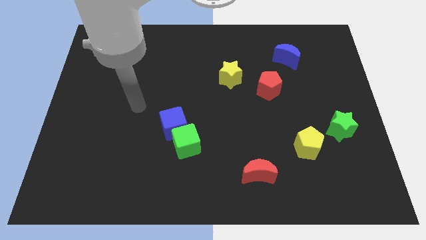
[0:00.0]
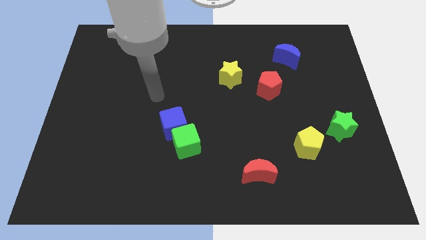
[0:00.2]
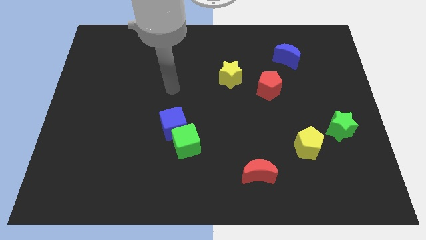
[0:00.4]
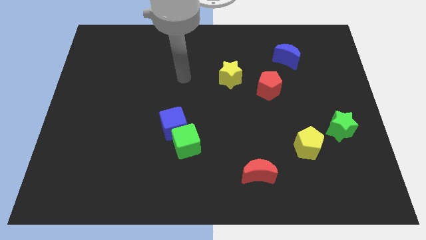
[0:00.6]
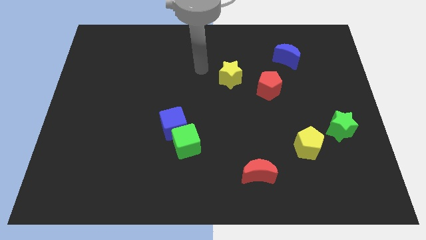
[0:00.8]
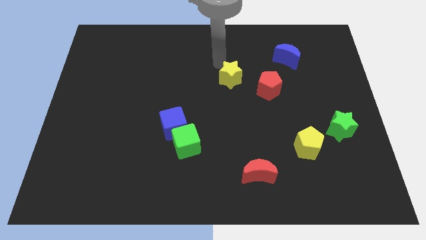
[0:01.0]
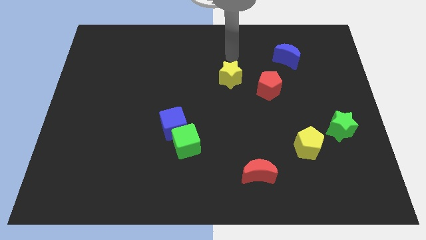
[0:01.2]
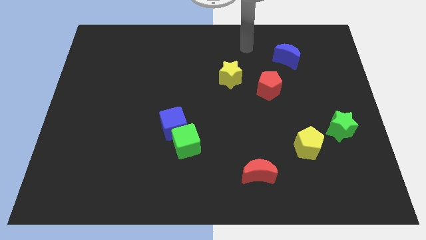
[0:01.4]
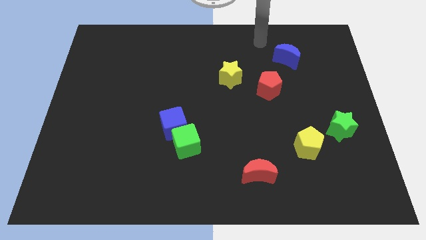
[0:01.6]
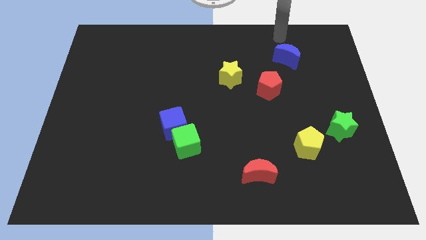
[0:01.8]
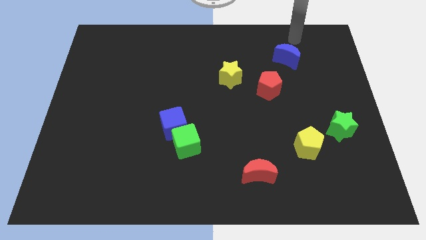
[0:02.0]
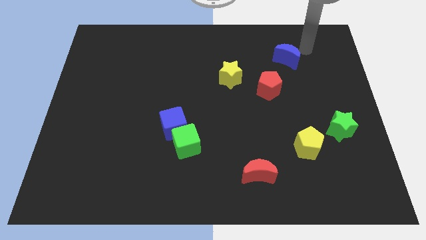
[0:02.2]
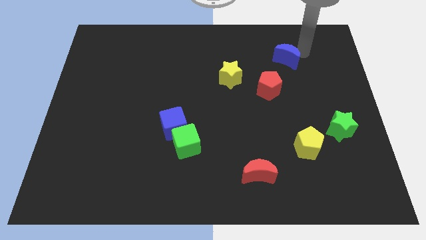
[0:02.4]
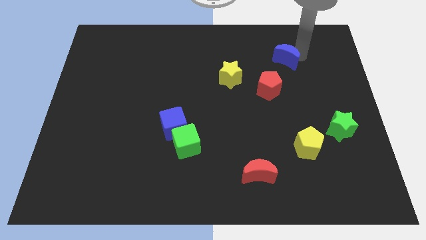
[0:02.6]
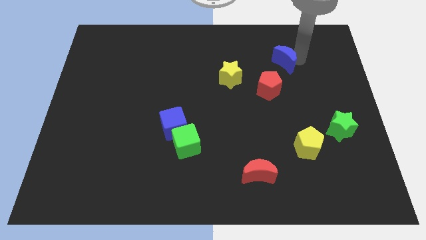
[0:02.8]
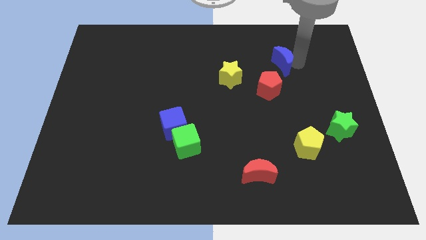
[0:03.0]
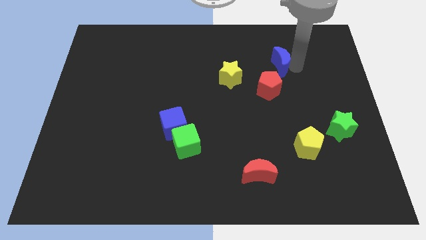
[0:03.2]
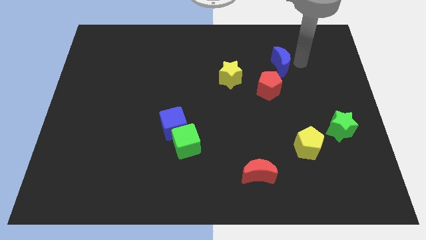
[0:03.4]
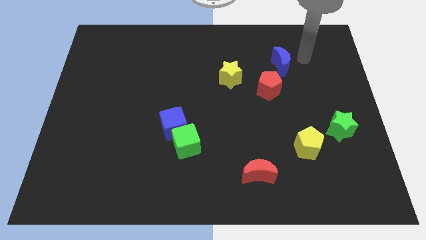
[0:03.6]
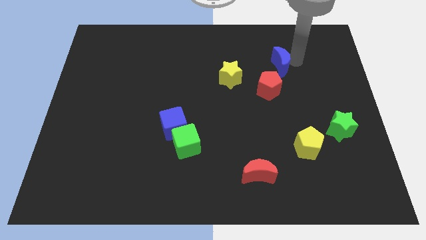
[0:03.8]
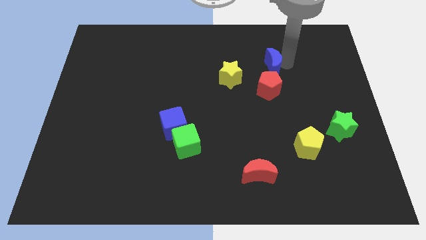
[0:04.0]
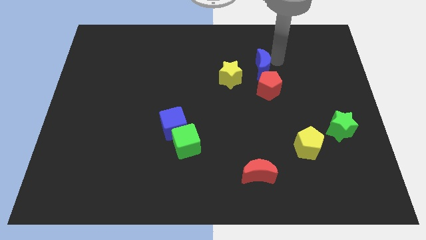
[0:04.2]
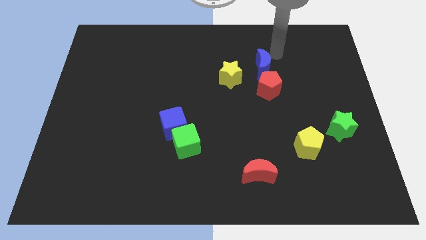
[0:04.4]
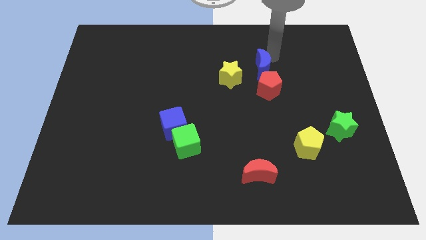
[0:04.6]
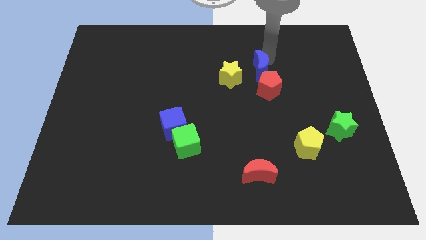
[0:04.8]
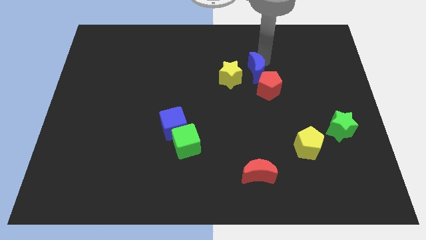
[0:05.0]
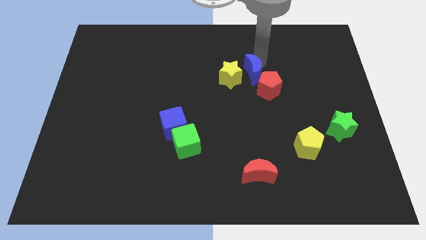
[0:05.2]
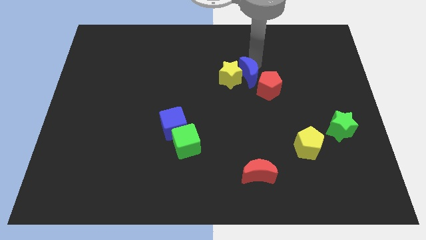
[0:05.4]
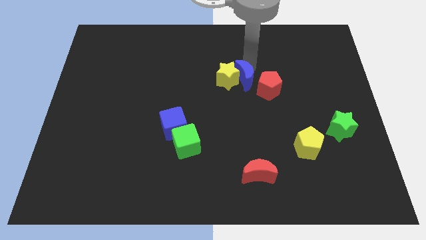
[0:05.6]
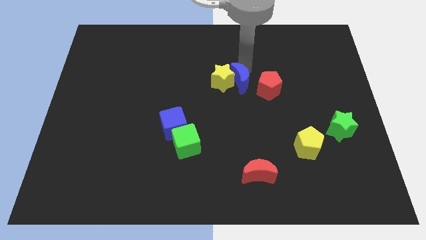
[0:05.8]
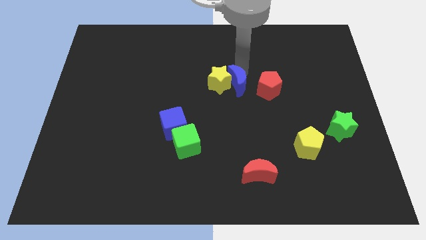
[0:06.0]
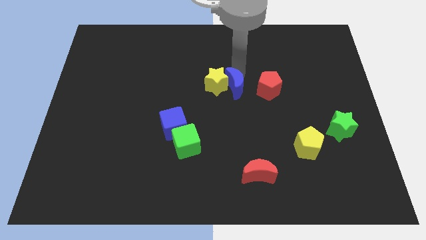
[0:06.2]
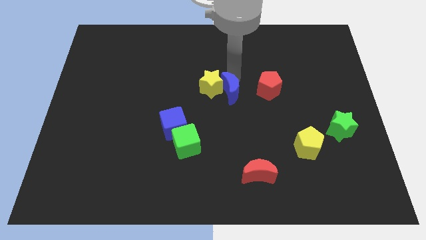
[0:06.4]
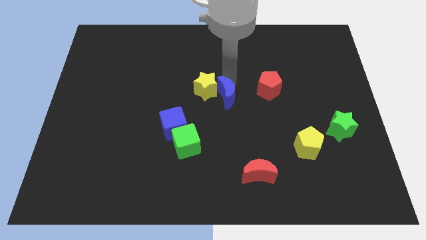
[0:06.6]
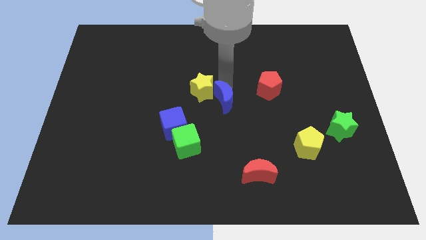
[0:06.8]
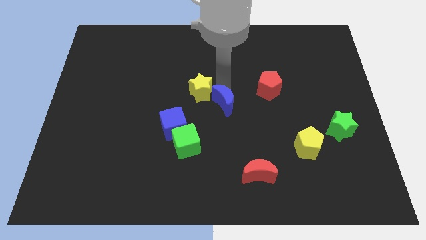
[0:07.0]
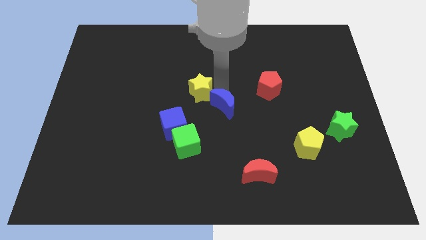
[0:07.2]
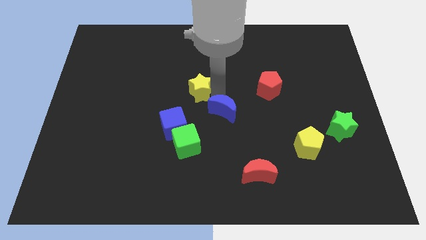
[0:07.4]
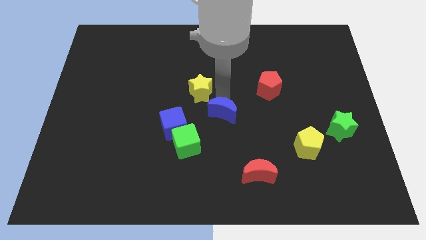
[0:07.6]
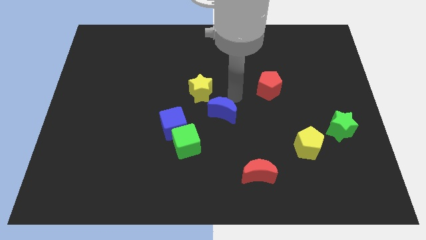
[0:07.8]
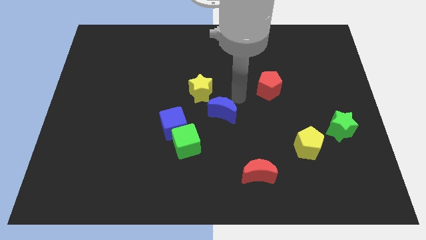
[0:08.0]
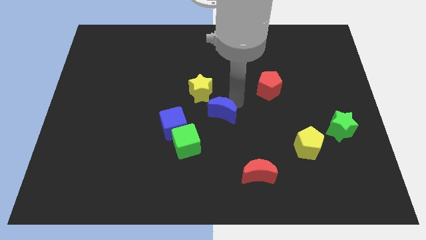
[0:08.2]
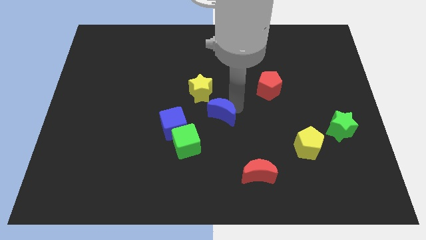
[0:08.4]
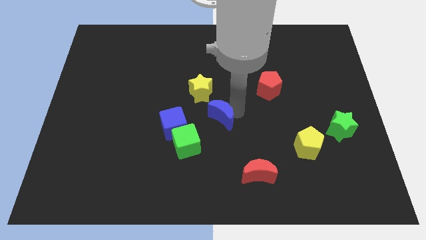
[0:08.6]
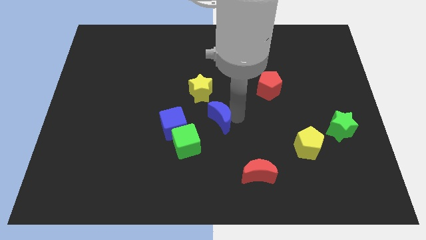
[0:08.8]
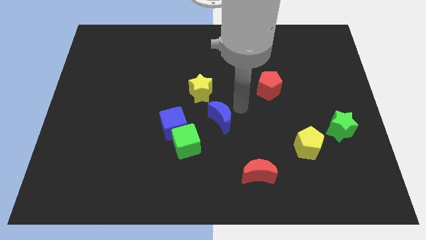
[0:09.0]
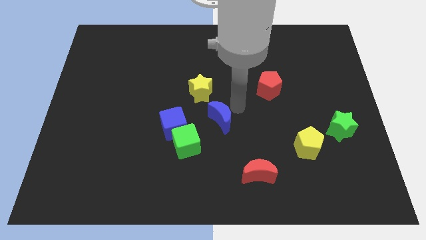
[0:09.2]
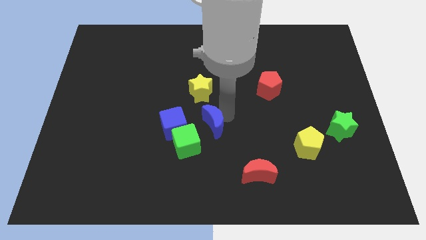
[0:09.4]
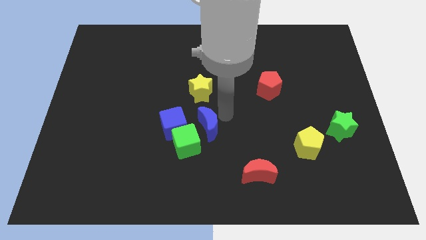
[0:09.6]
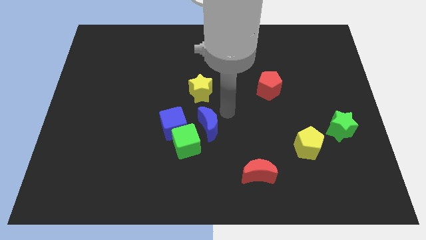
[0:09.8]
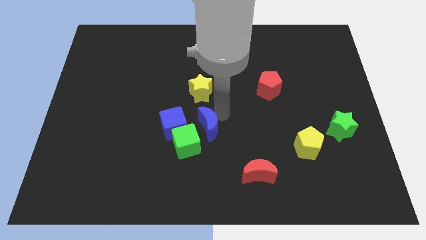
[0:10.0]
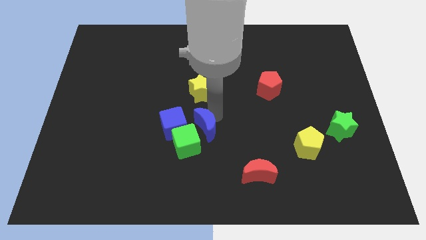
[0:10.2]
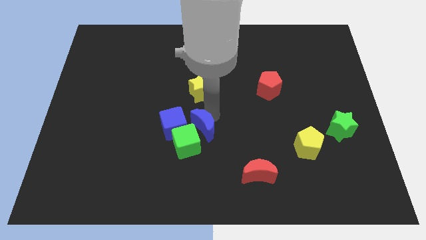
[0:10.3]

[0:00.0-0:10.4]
move the blue moon to the green cube

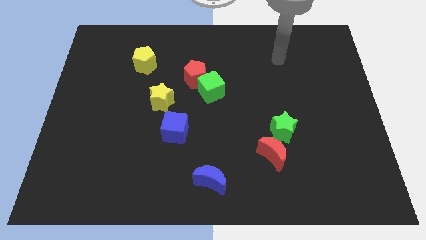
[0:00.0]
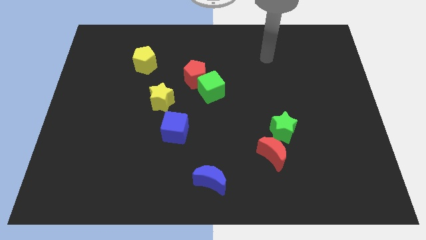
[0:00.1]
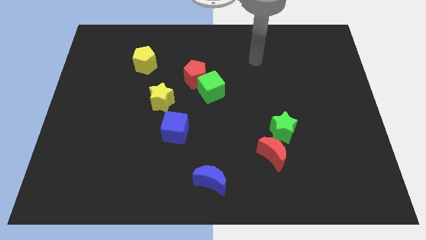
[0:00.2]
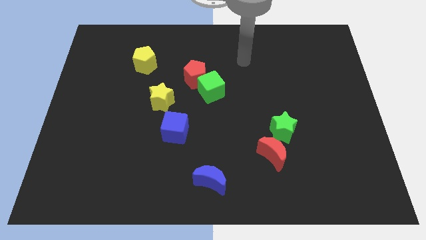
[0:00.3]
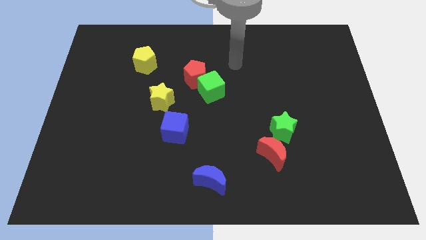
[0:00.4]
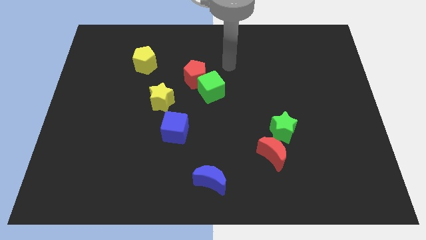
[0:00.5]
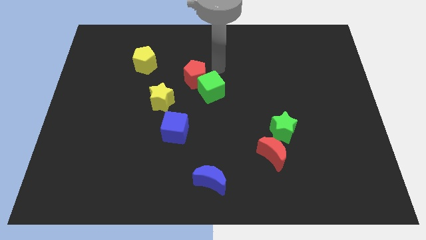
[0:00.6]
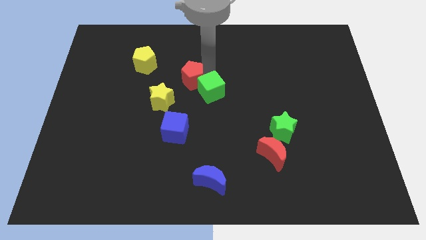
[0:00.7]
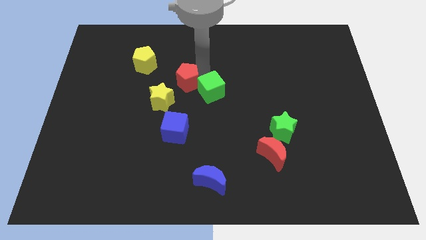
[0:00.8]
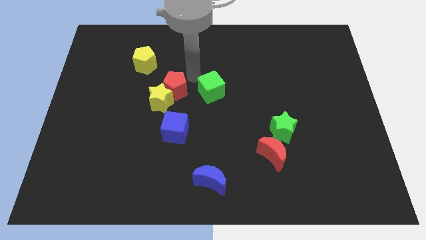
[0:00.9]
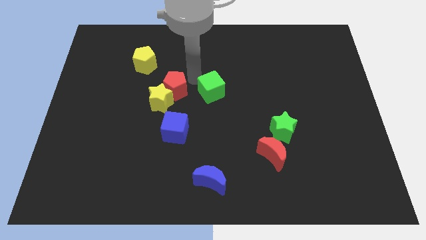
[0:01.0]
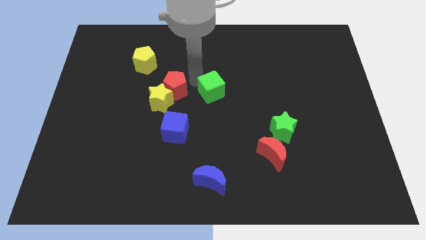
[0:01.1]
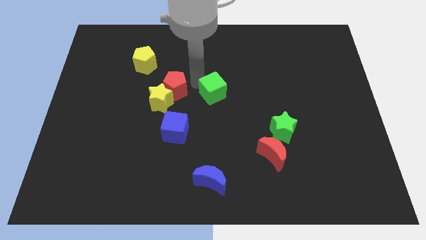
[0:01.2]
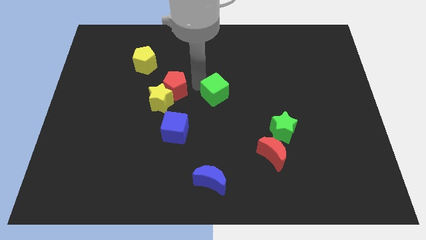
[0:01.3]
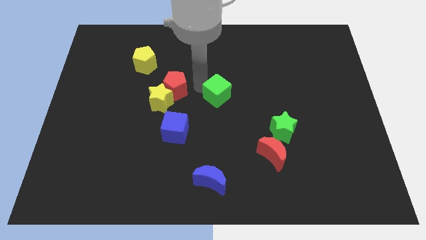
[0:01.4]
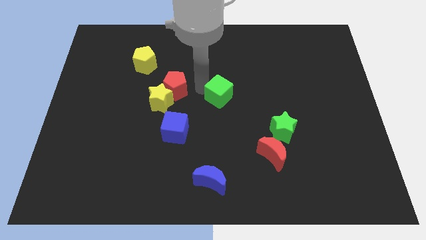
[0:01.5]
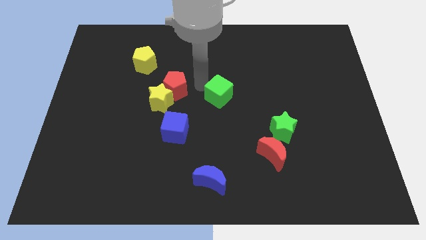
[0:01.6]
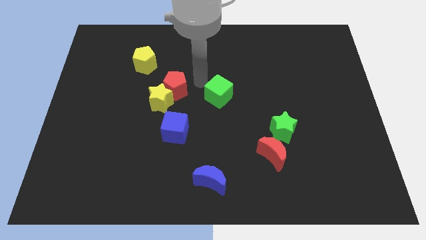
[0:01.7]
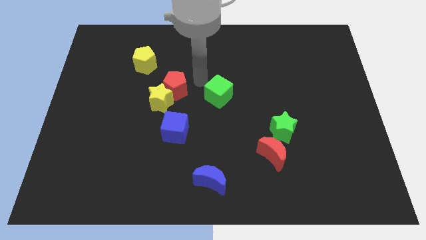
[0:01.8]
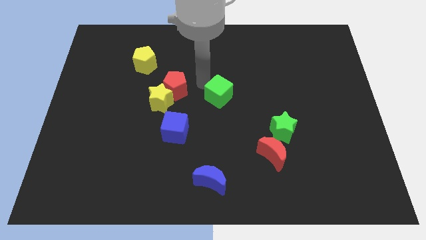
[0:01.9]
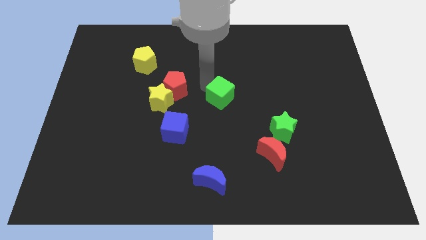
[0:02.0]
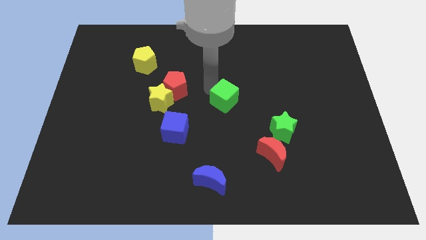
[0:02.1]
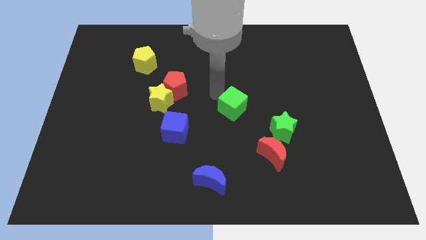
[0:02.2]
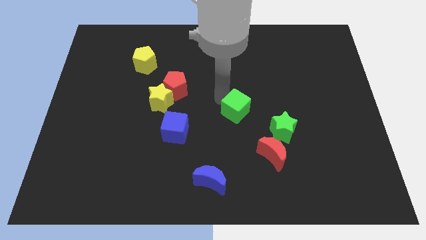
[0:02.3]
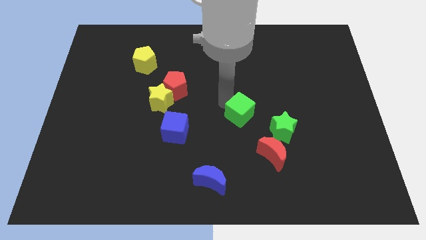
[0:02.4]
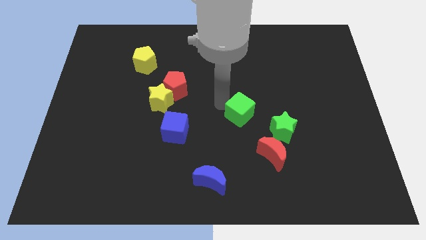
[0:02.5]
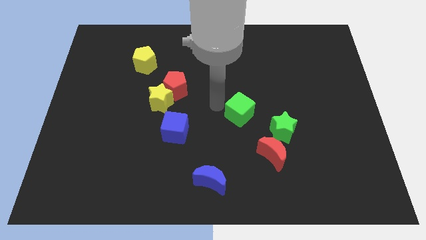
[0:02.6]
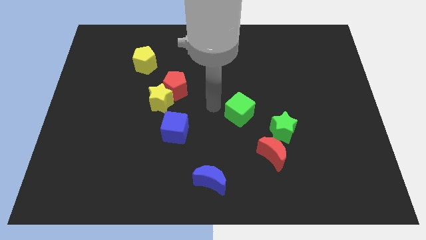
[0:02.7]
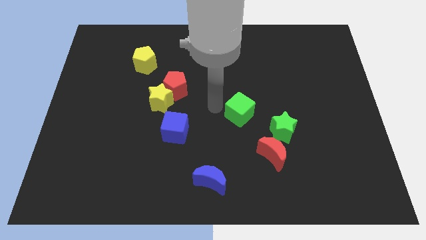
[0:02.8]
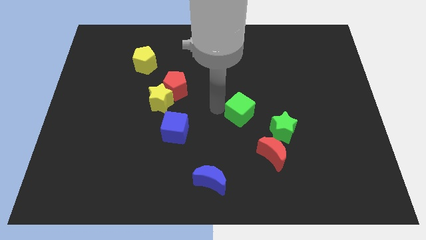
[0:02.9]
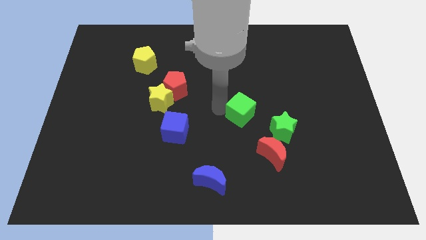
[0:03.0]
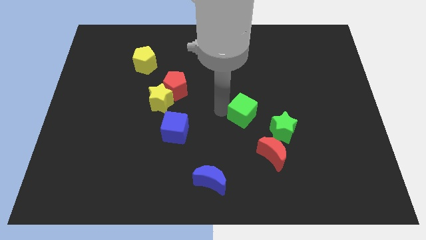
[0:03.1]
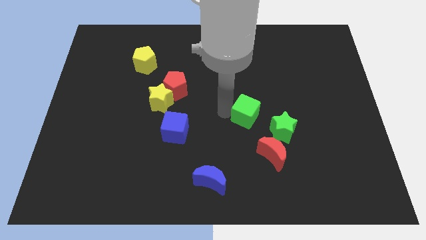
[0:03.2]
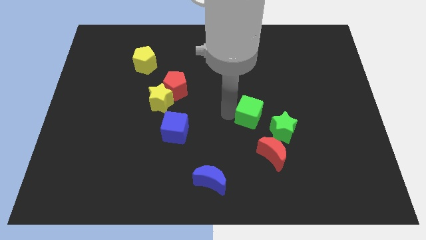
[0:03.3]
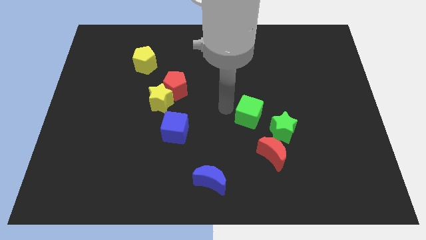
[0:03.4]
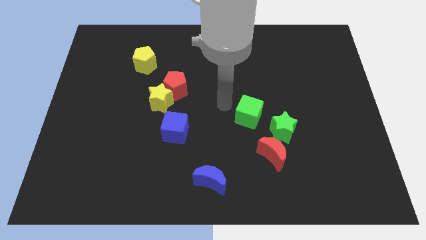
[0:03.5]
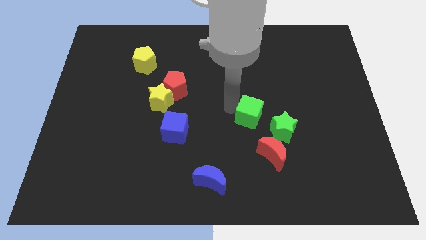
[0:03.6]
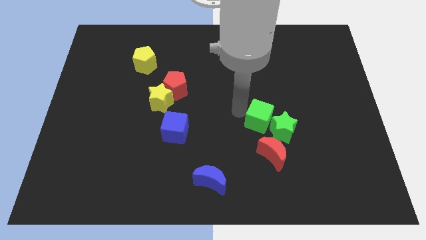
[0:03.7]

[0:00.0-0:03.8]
move the green cube towards the green star
